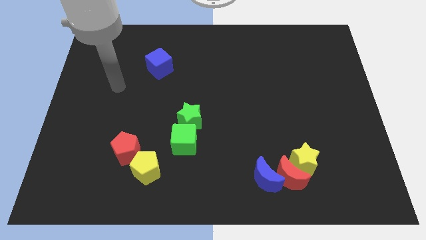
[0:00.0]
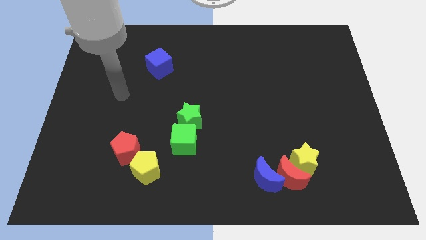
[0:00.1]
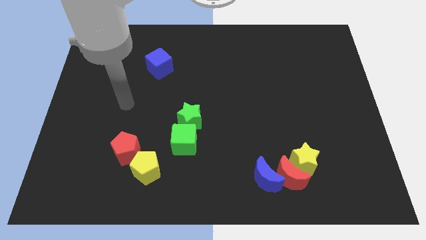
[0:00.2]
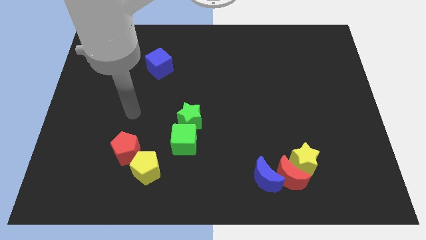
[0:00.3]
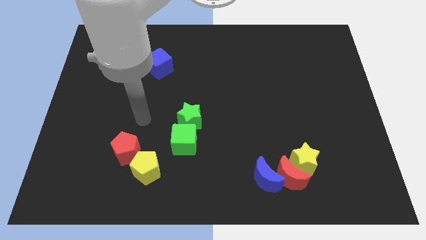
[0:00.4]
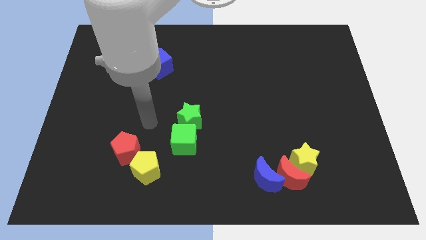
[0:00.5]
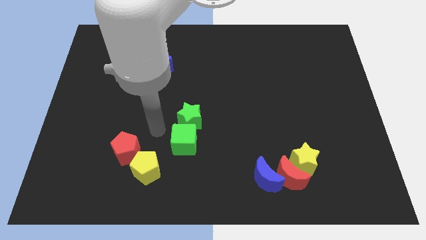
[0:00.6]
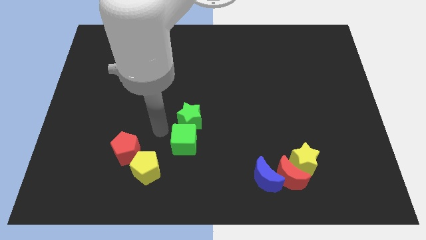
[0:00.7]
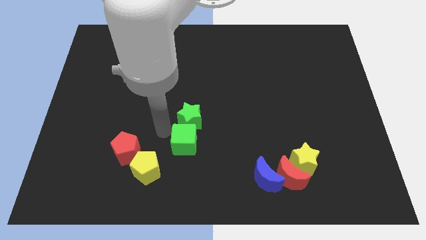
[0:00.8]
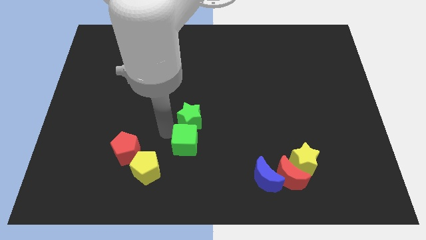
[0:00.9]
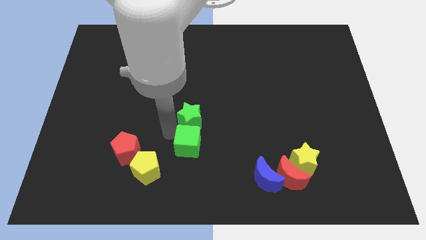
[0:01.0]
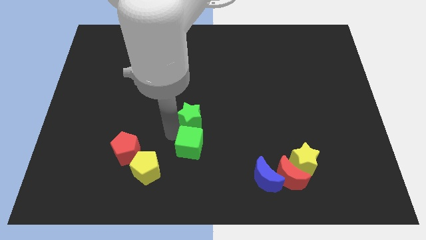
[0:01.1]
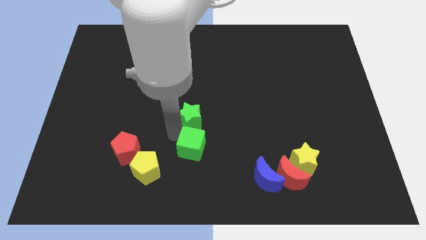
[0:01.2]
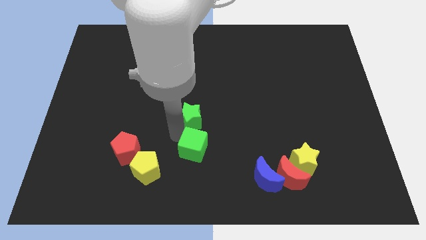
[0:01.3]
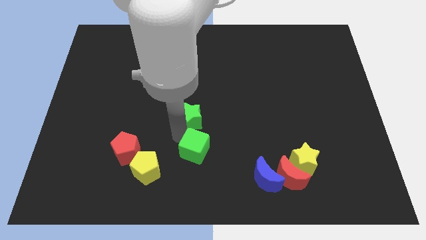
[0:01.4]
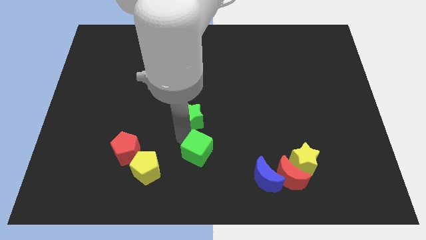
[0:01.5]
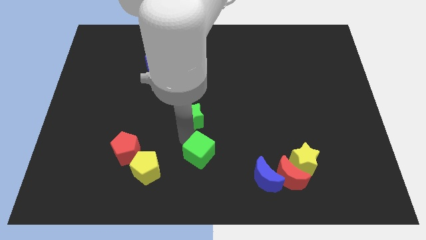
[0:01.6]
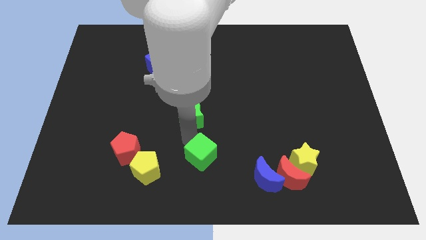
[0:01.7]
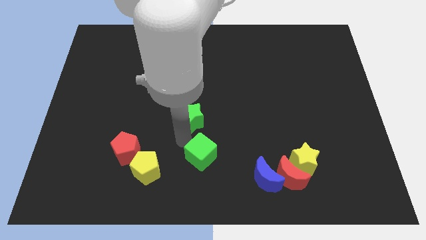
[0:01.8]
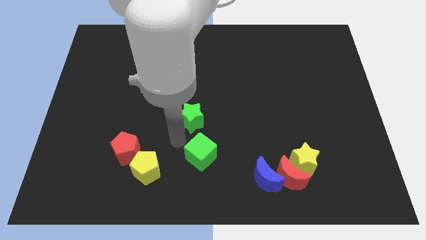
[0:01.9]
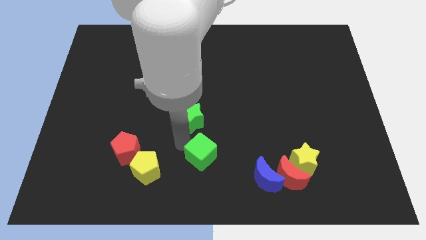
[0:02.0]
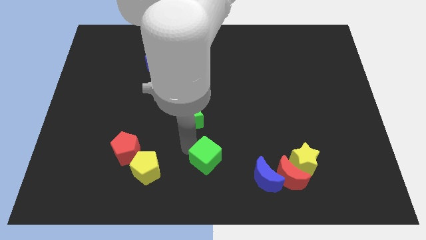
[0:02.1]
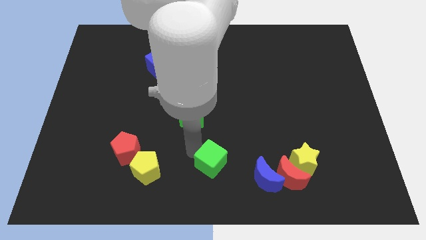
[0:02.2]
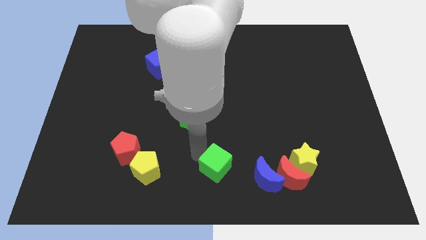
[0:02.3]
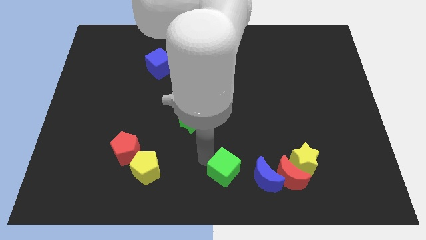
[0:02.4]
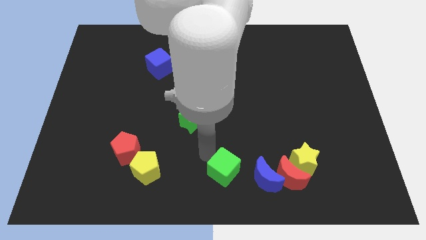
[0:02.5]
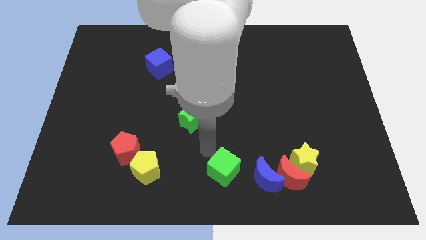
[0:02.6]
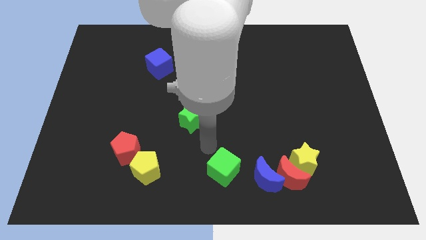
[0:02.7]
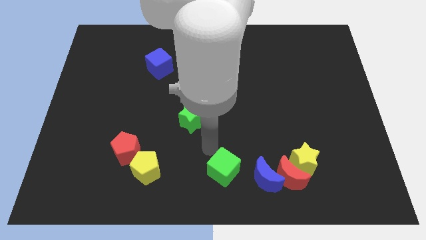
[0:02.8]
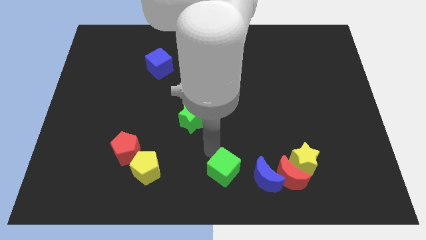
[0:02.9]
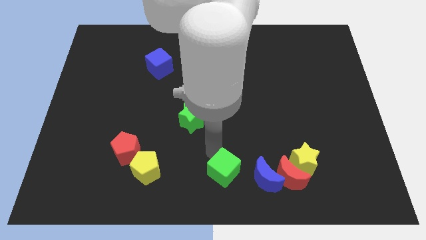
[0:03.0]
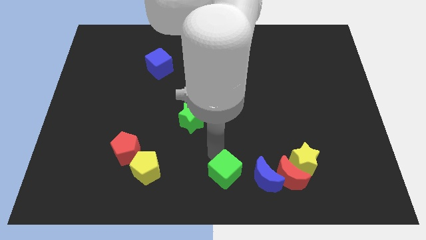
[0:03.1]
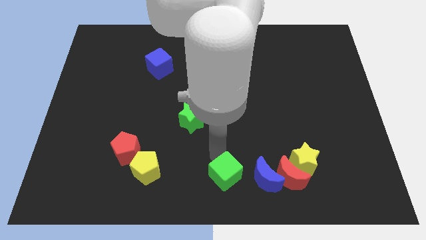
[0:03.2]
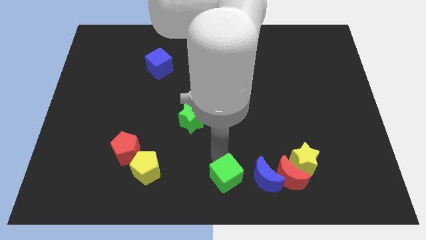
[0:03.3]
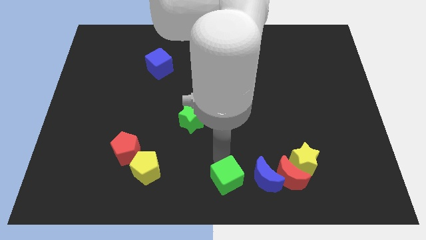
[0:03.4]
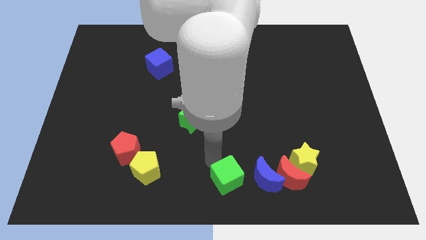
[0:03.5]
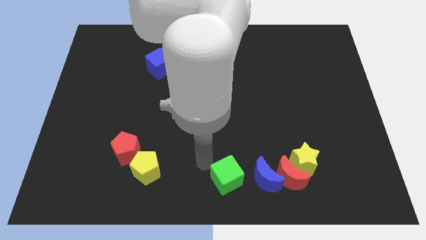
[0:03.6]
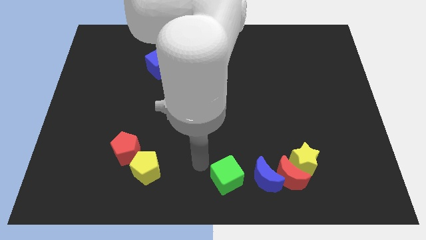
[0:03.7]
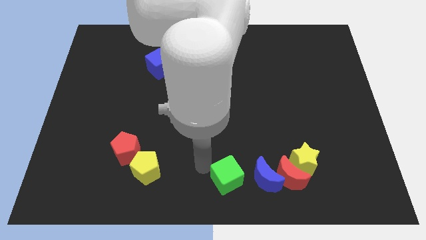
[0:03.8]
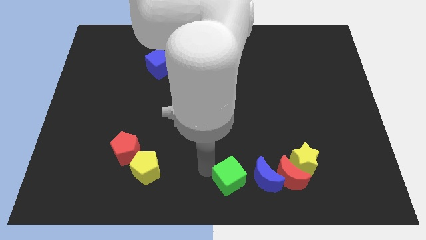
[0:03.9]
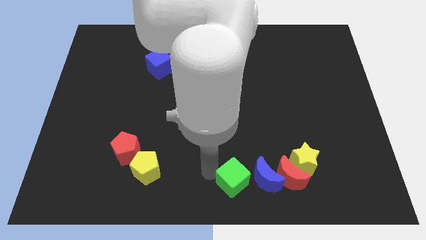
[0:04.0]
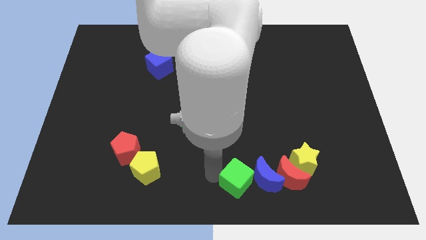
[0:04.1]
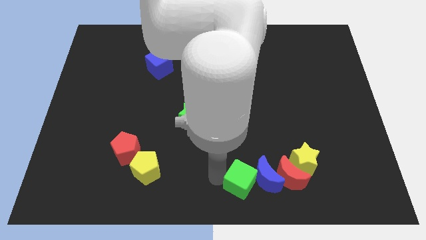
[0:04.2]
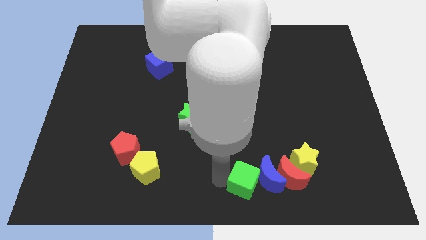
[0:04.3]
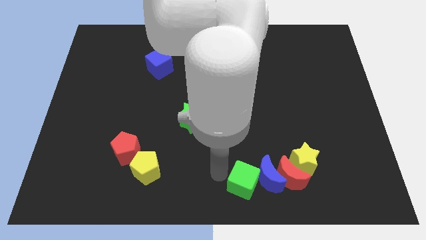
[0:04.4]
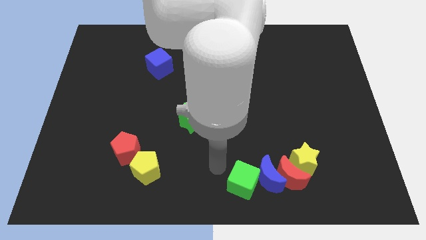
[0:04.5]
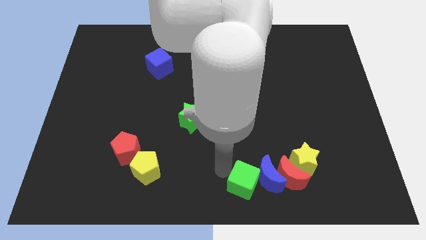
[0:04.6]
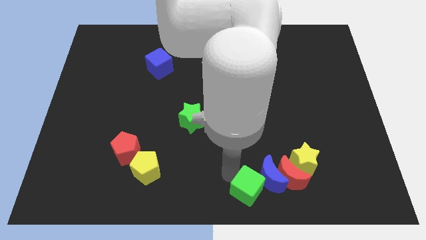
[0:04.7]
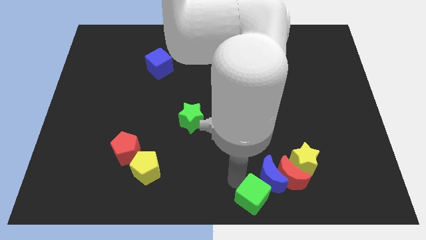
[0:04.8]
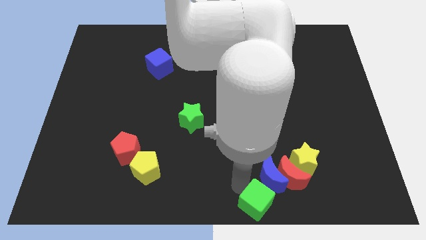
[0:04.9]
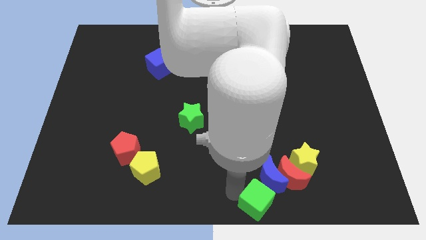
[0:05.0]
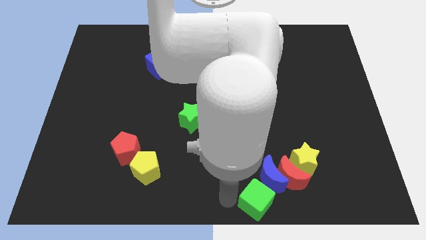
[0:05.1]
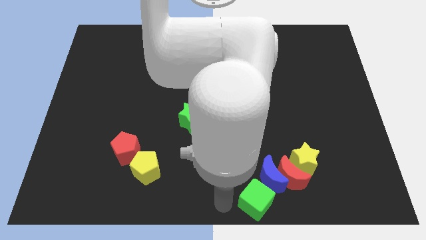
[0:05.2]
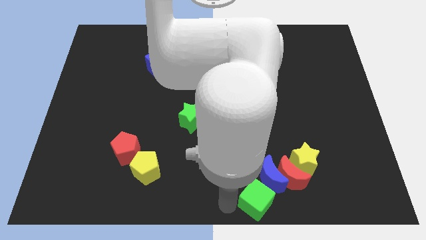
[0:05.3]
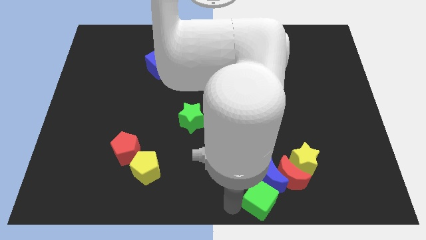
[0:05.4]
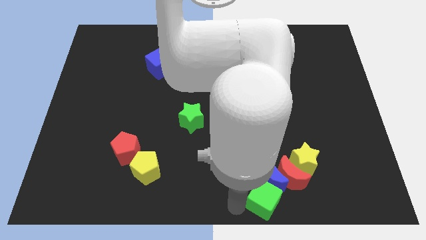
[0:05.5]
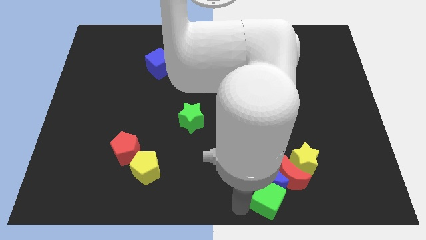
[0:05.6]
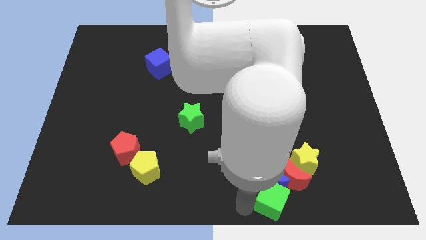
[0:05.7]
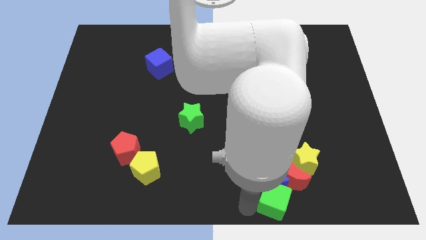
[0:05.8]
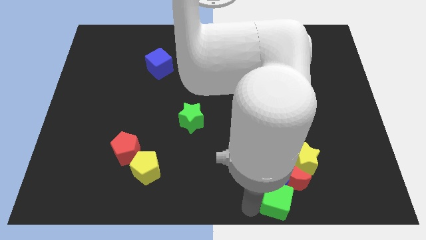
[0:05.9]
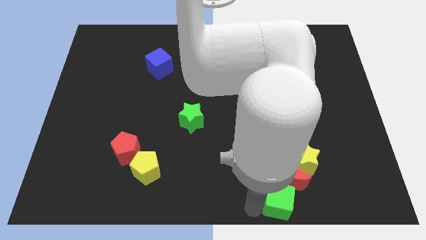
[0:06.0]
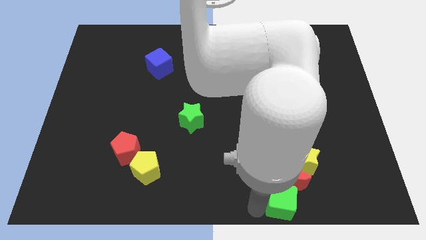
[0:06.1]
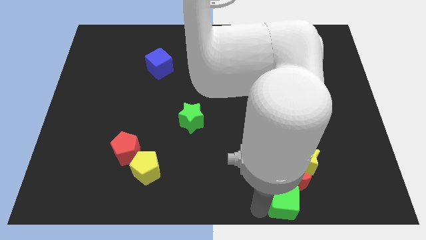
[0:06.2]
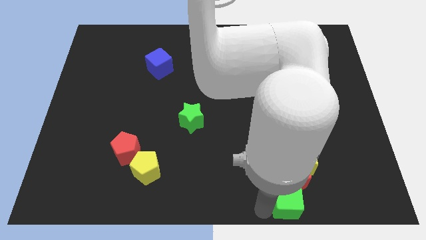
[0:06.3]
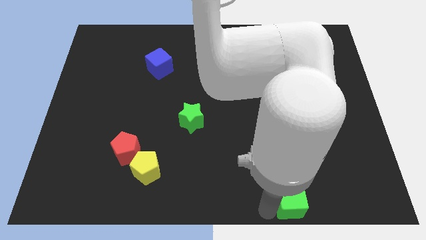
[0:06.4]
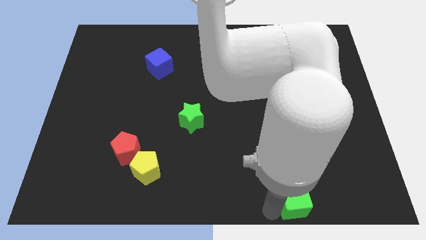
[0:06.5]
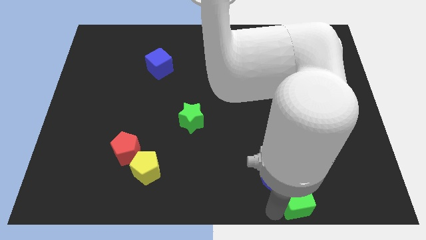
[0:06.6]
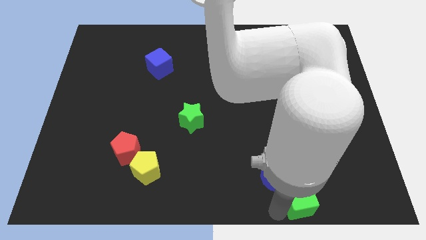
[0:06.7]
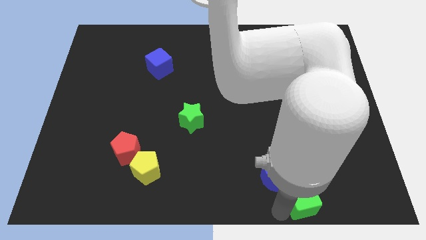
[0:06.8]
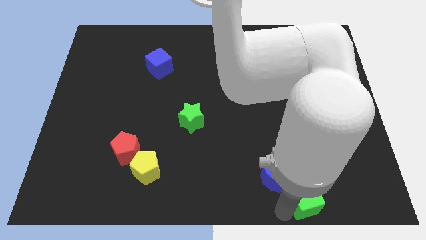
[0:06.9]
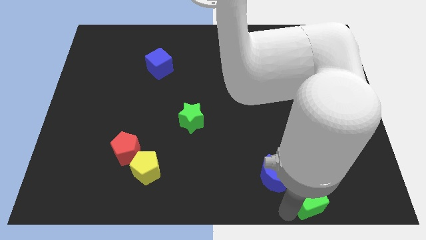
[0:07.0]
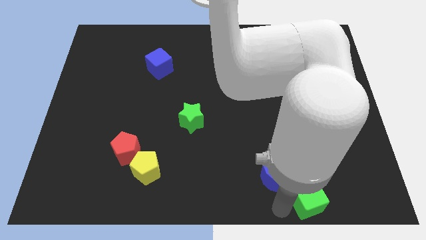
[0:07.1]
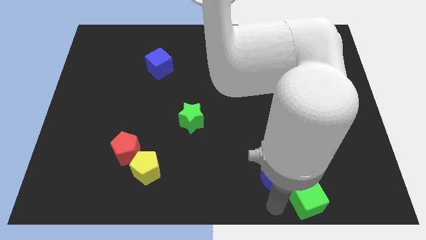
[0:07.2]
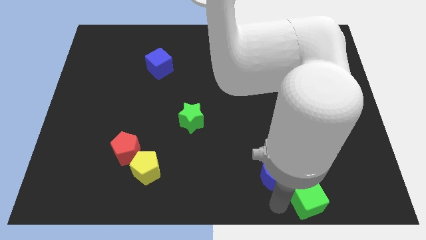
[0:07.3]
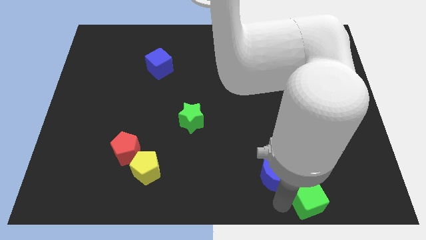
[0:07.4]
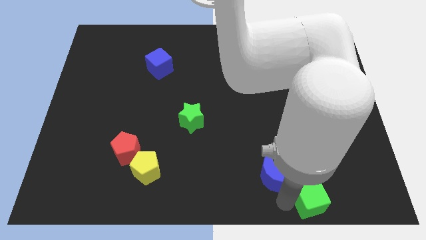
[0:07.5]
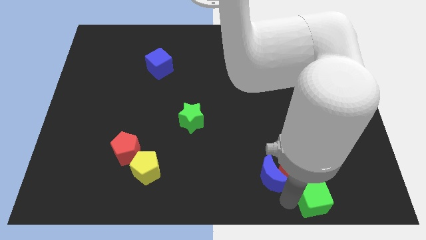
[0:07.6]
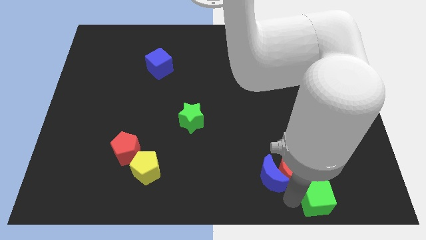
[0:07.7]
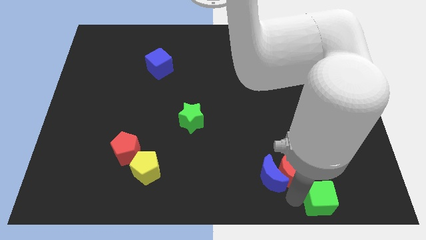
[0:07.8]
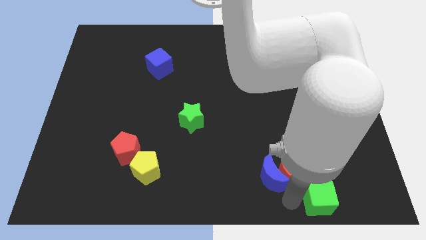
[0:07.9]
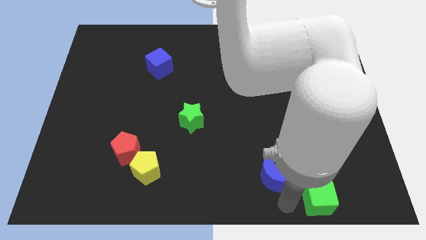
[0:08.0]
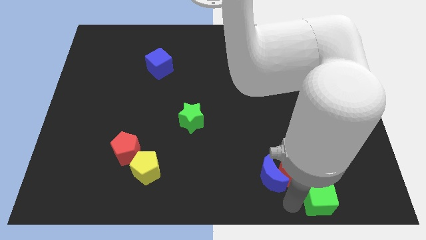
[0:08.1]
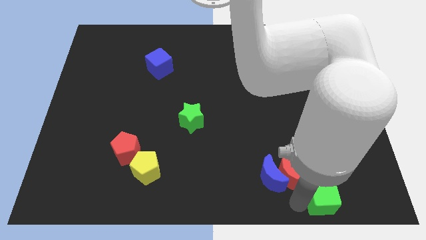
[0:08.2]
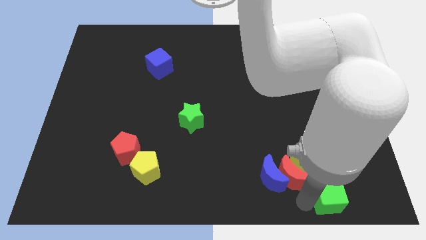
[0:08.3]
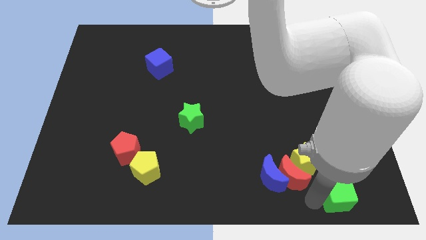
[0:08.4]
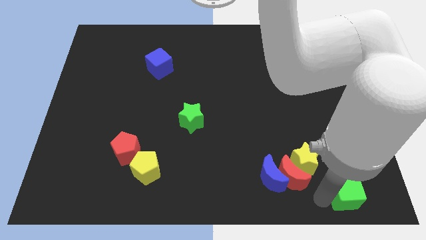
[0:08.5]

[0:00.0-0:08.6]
put the green cube to the bottom right of the board
